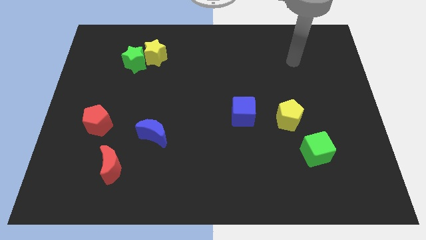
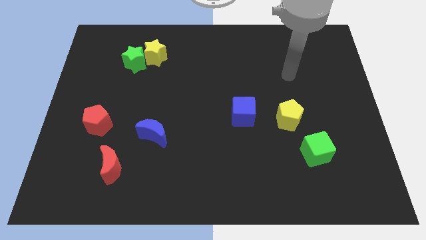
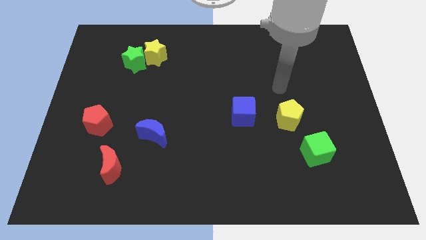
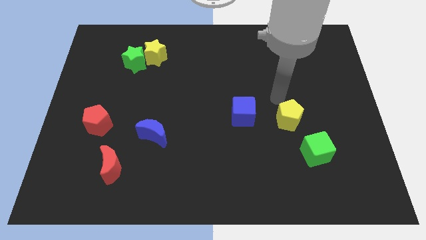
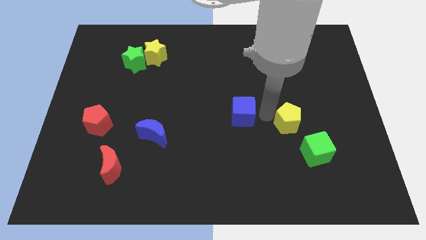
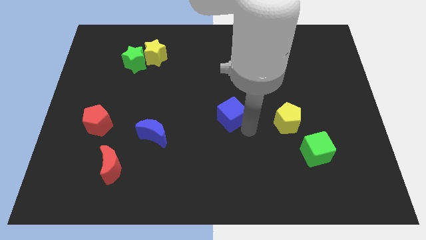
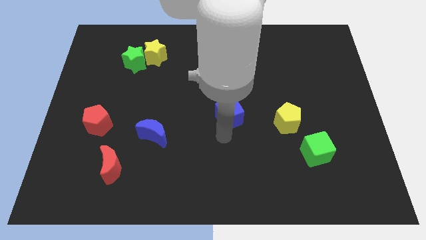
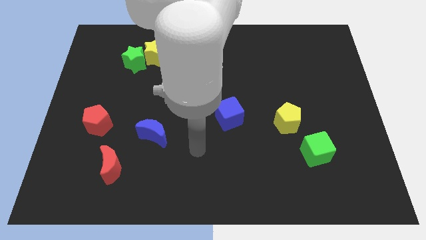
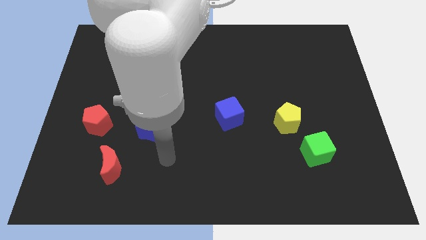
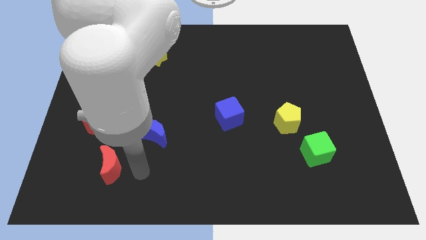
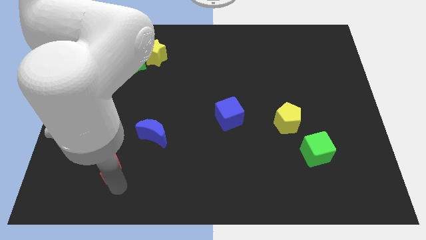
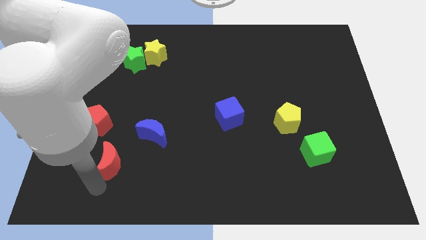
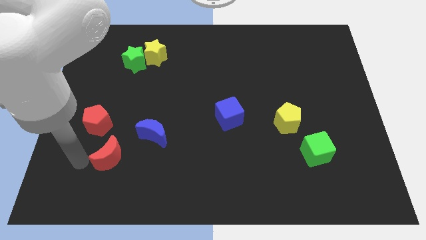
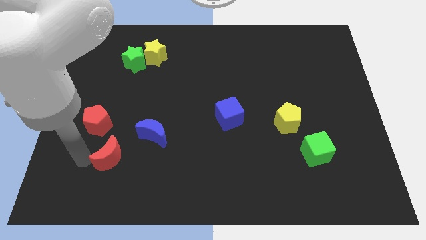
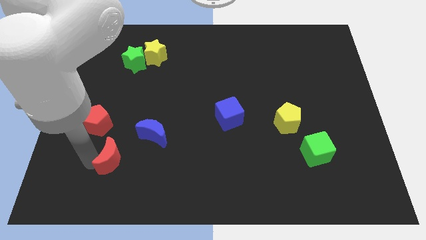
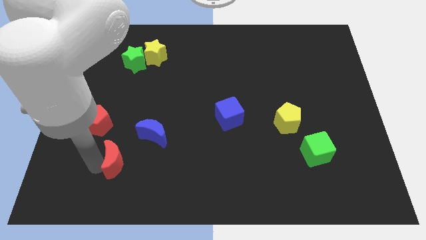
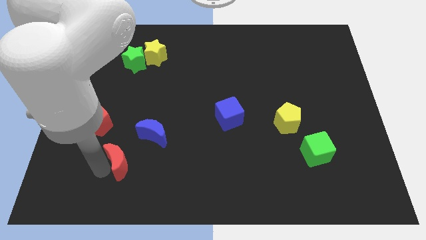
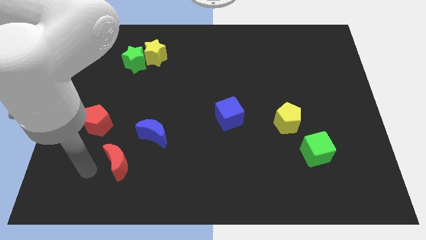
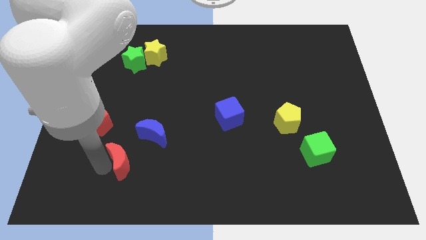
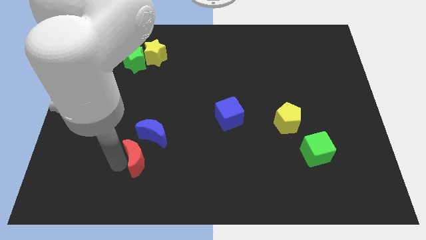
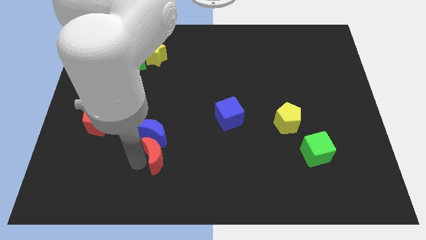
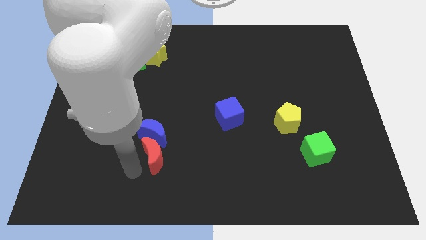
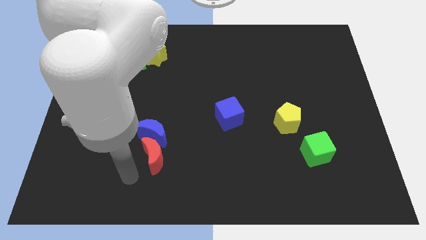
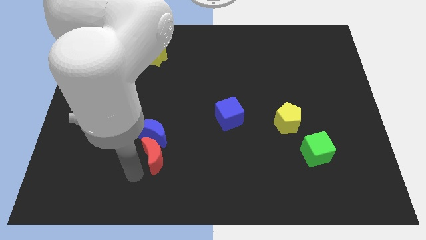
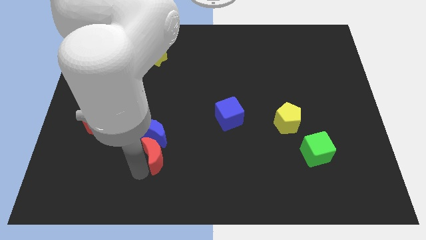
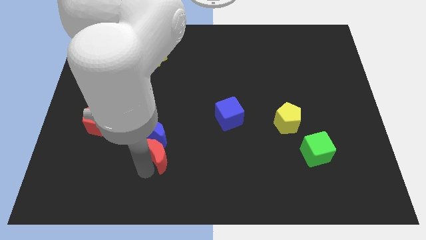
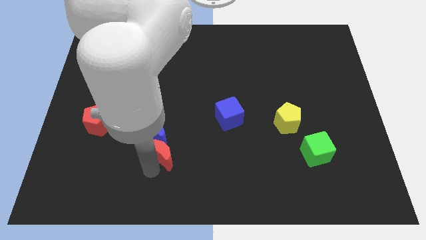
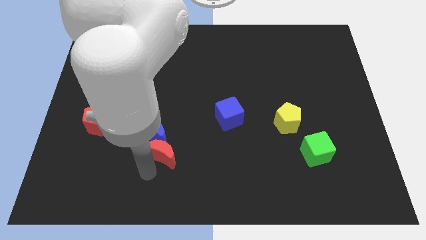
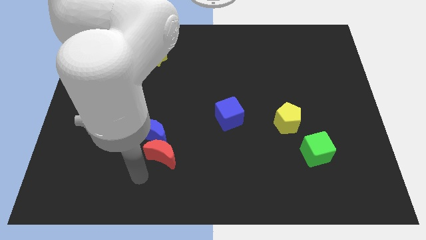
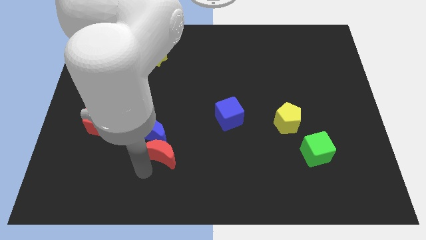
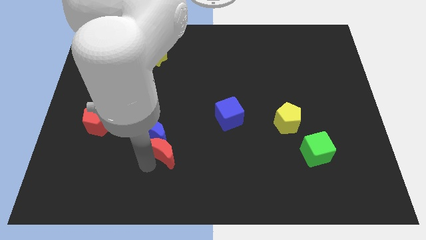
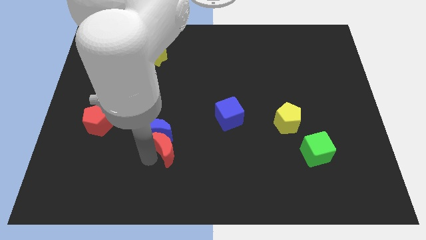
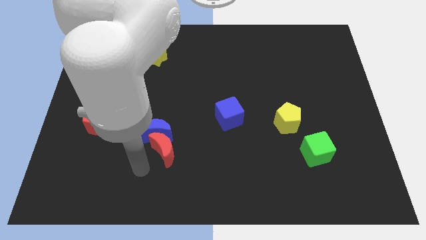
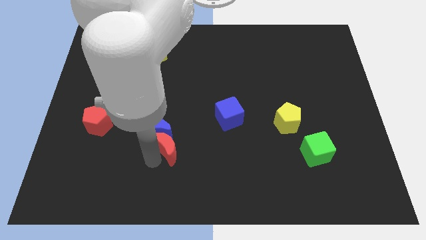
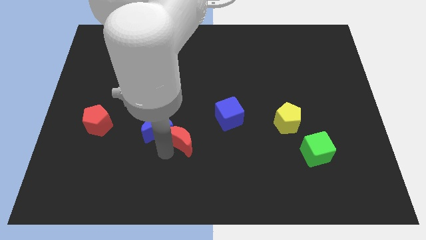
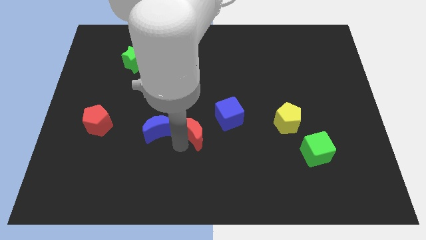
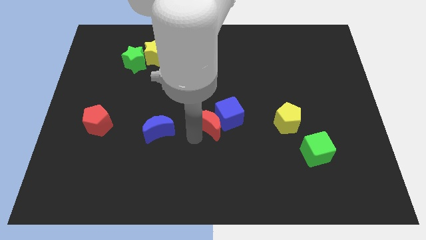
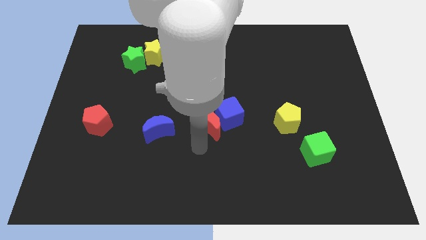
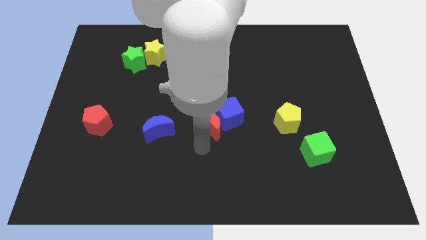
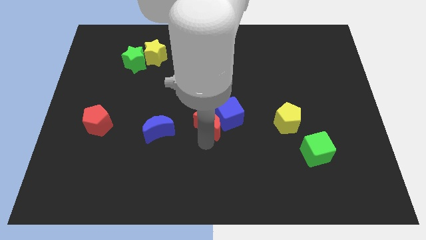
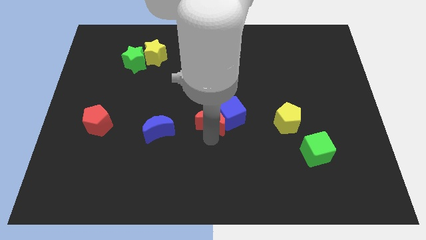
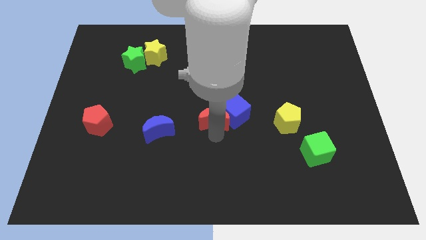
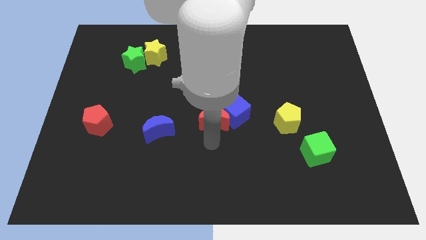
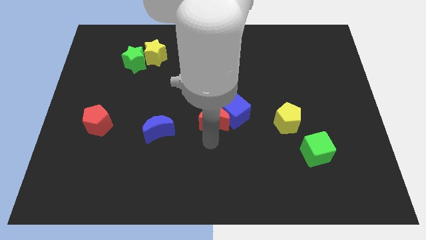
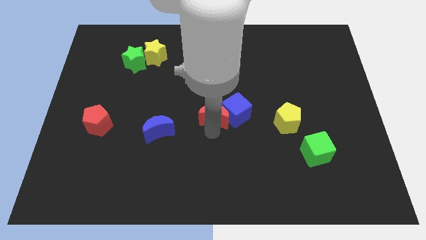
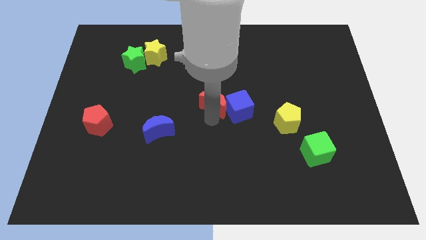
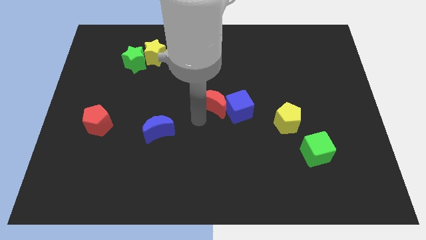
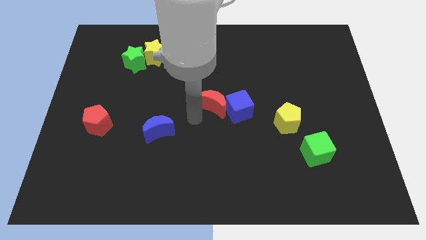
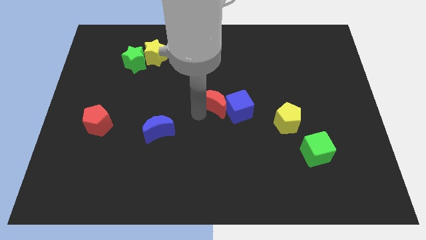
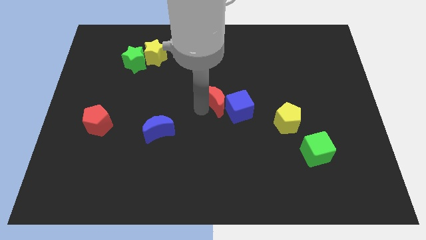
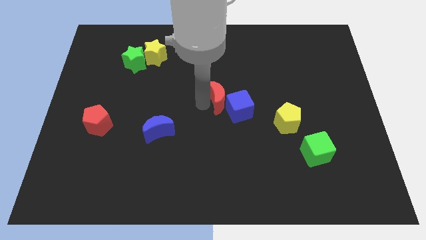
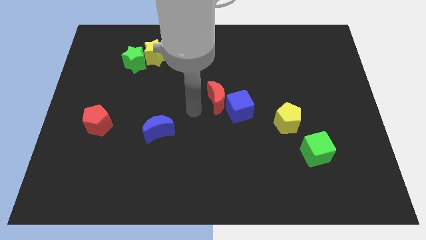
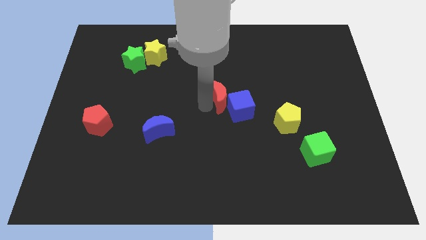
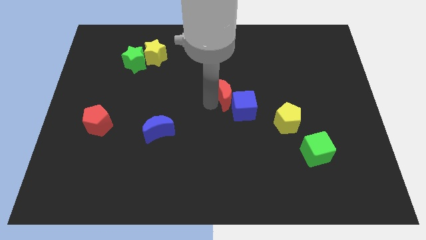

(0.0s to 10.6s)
move the red moon to the top of the blue cube

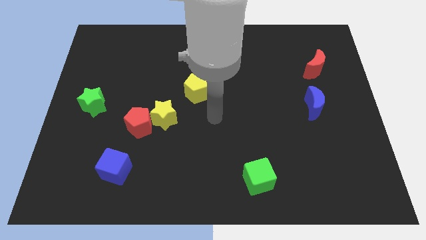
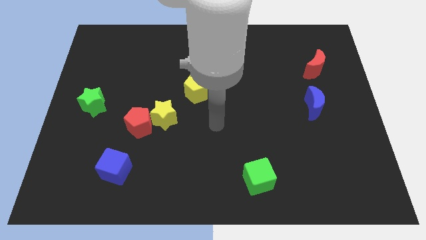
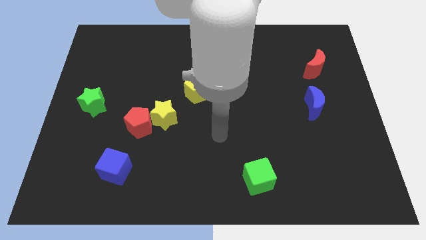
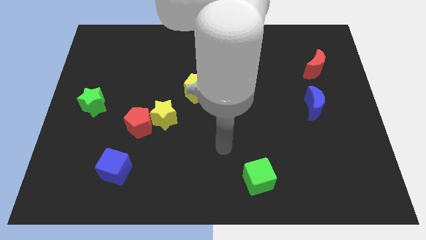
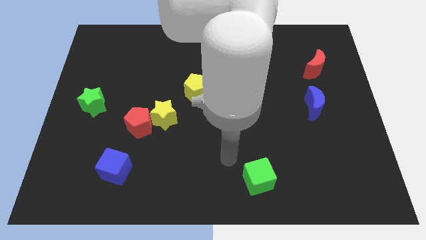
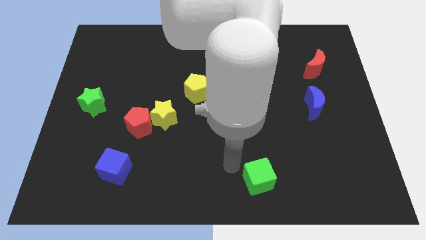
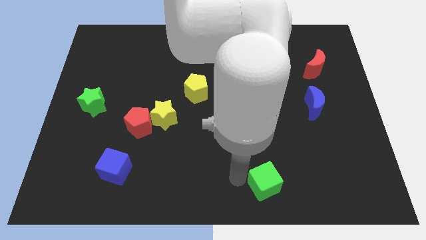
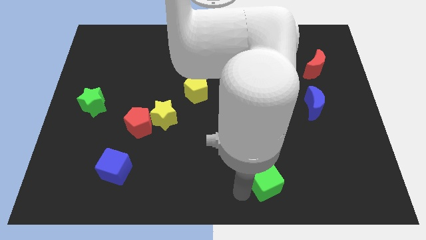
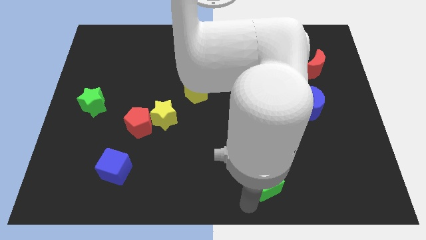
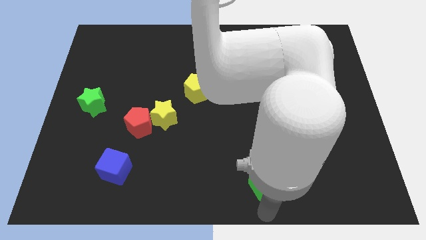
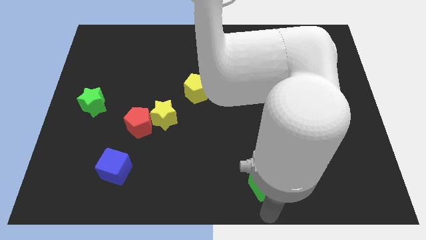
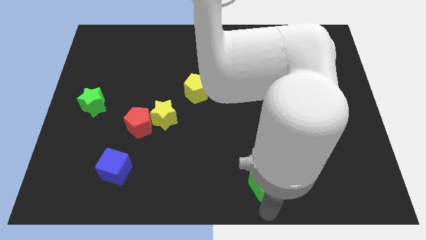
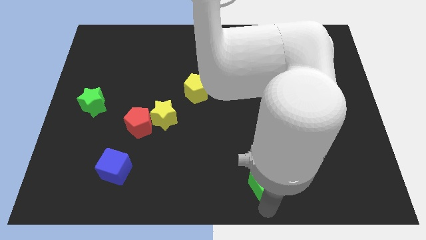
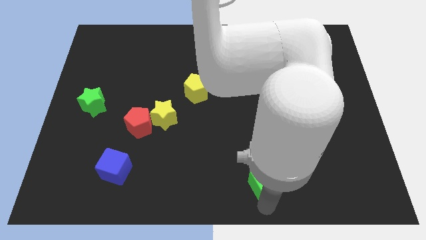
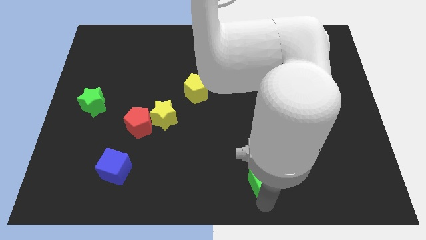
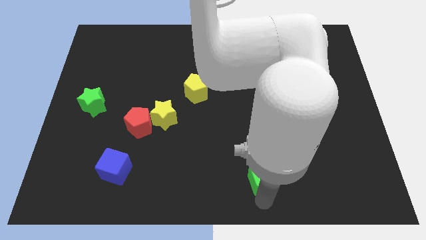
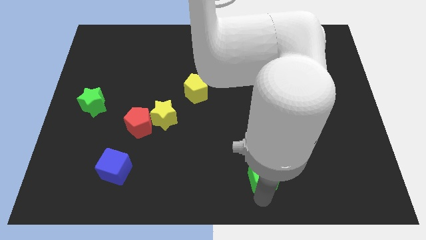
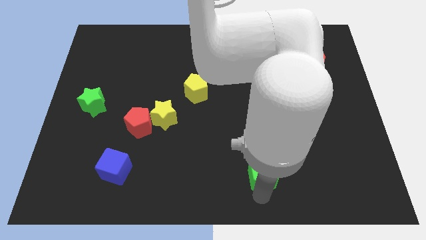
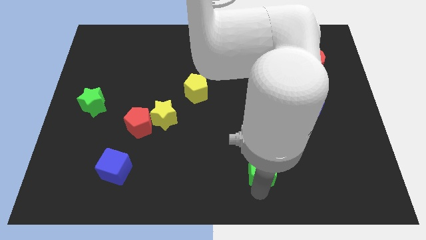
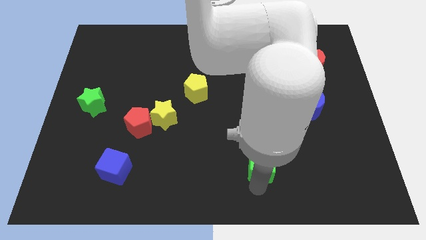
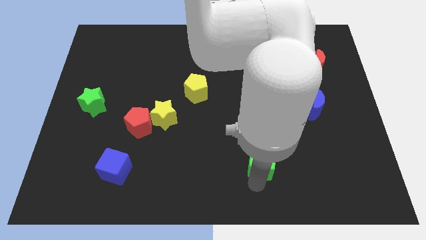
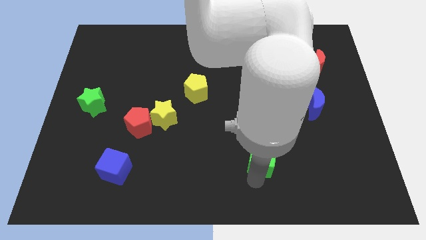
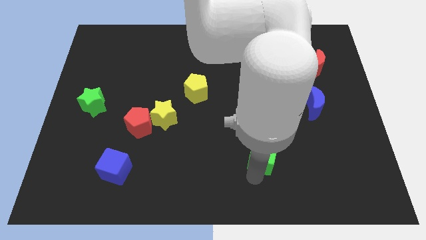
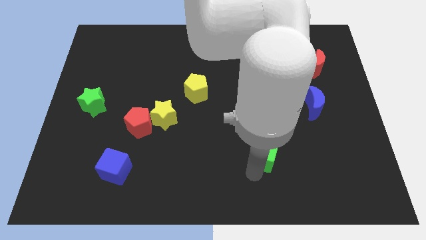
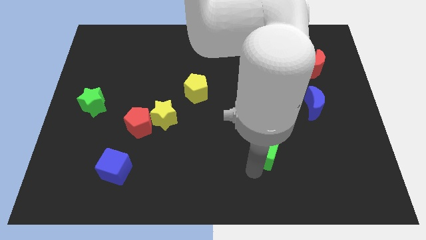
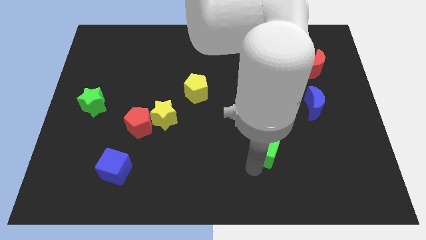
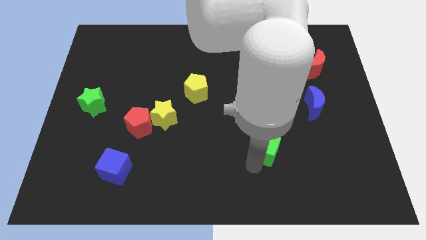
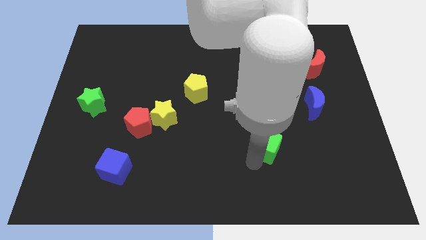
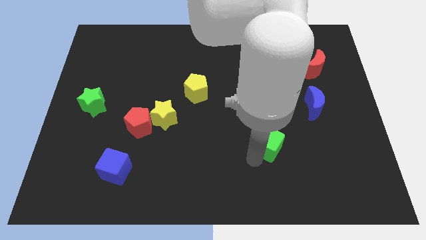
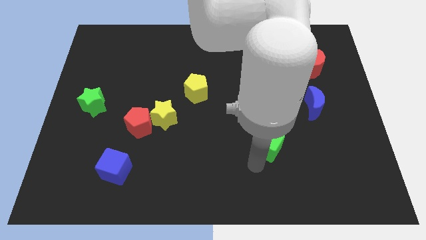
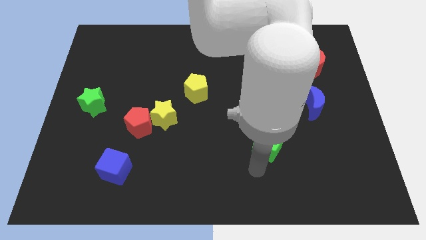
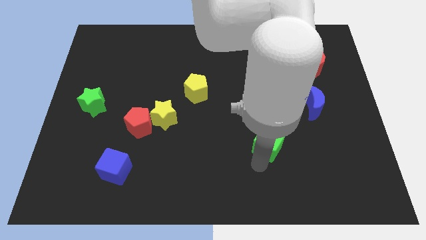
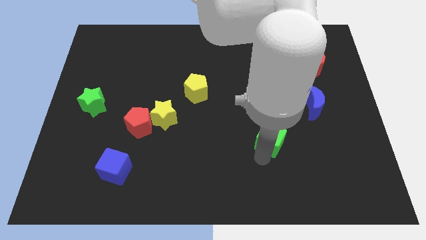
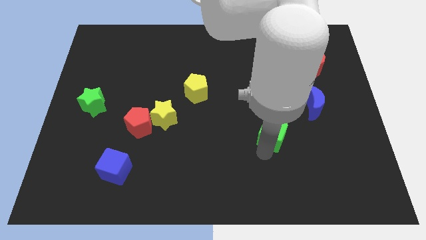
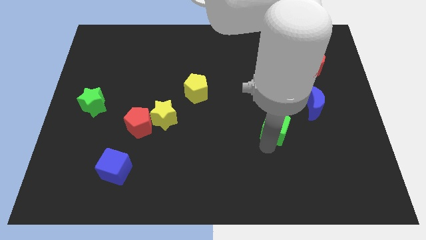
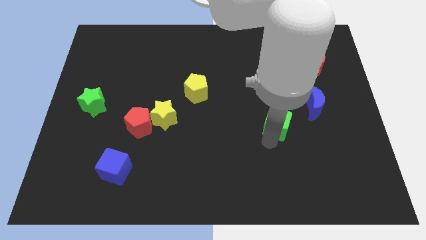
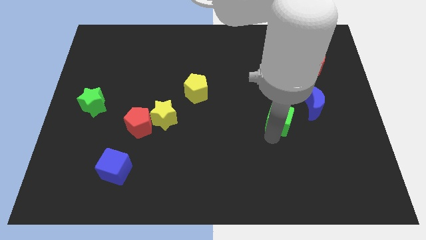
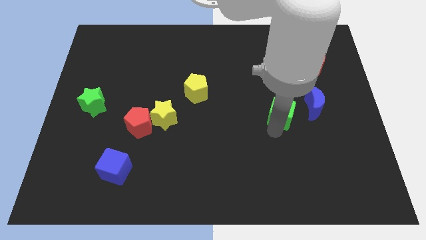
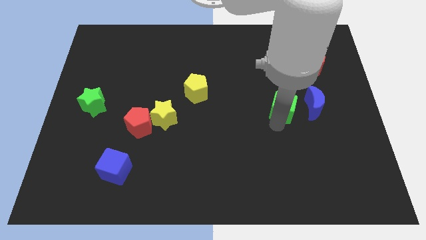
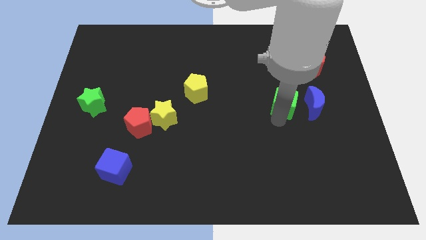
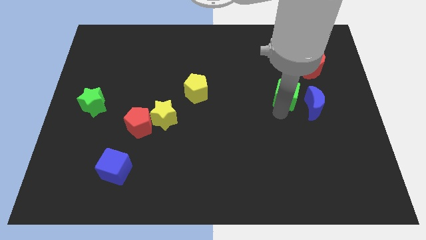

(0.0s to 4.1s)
slide the green cube to the bottom left side of the red moon
